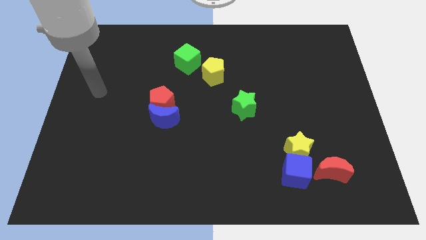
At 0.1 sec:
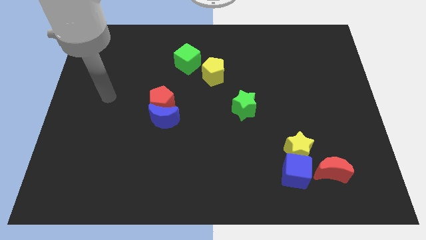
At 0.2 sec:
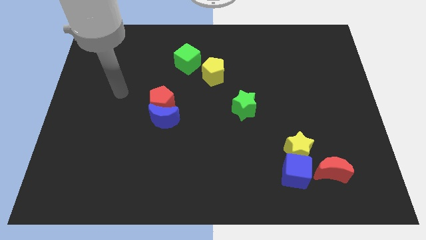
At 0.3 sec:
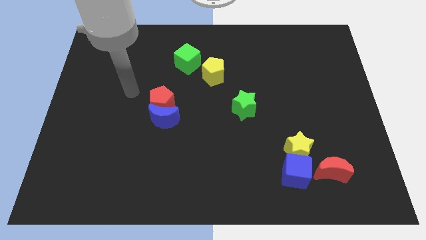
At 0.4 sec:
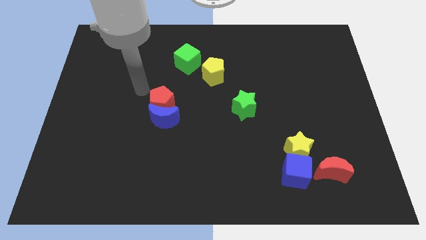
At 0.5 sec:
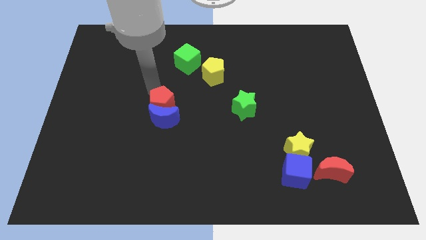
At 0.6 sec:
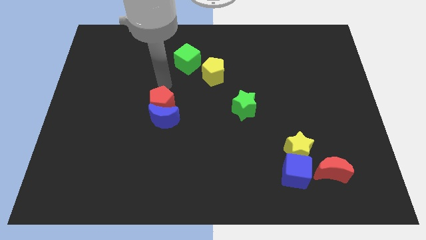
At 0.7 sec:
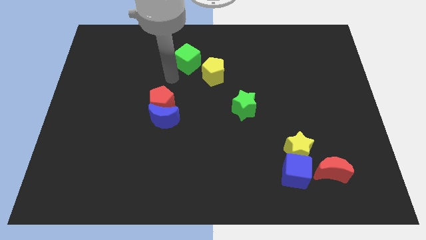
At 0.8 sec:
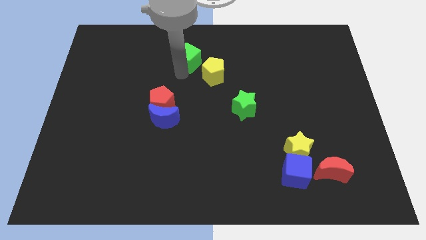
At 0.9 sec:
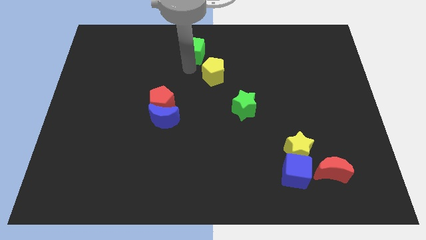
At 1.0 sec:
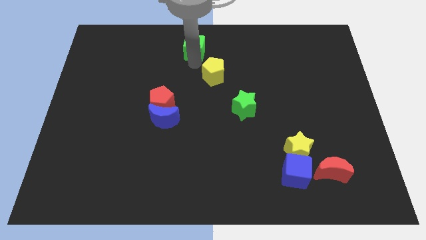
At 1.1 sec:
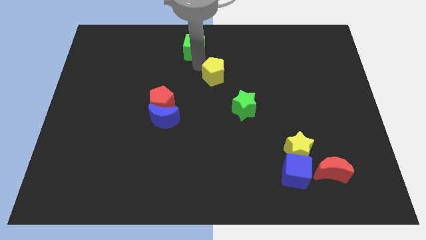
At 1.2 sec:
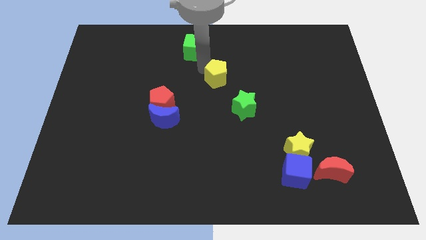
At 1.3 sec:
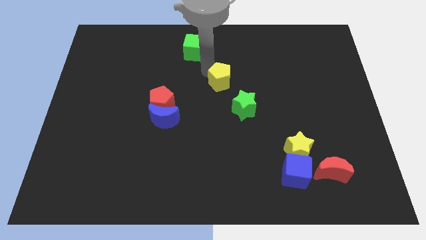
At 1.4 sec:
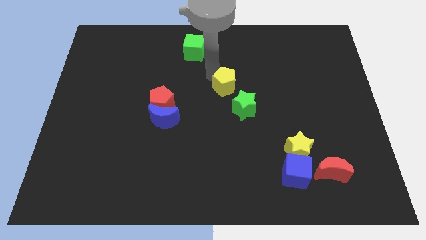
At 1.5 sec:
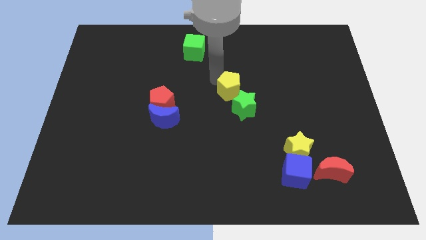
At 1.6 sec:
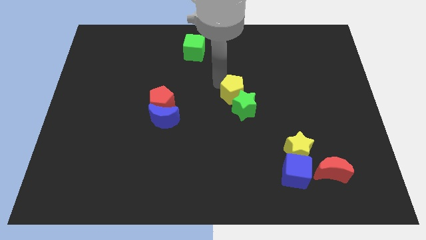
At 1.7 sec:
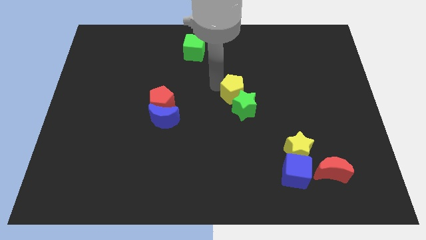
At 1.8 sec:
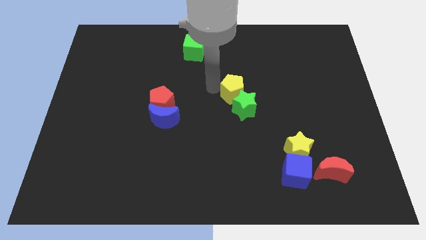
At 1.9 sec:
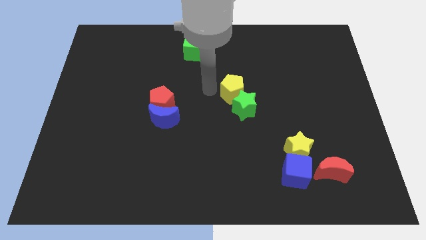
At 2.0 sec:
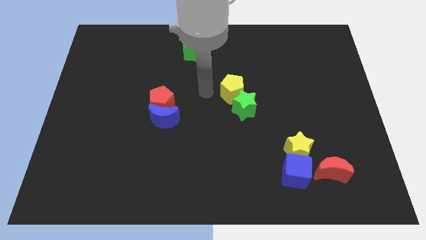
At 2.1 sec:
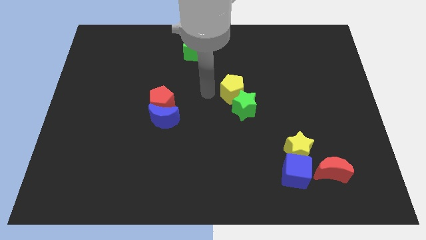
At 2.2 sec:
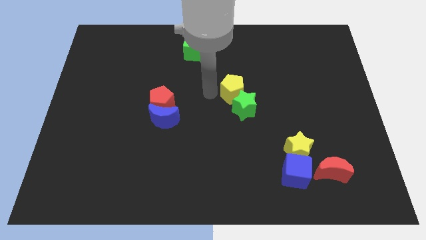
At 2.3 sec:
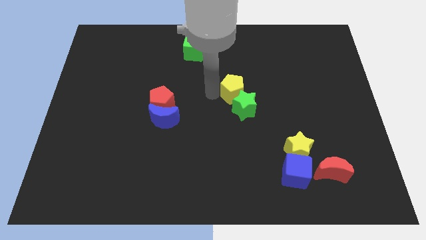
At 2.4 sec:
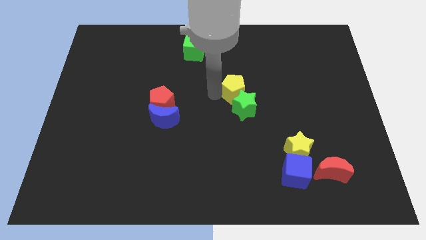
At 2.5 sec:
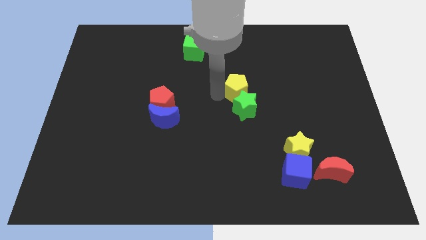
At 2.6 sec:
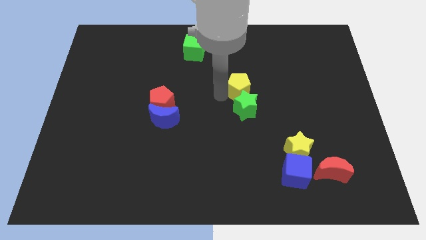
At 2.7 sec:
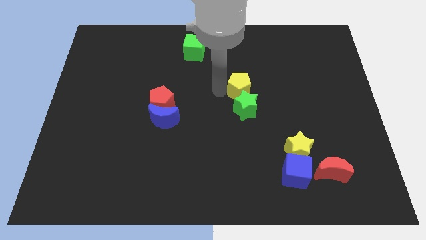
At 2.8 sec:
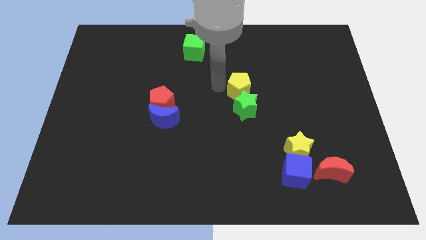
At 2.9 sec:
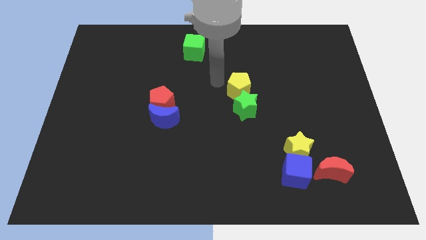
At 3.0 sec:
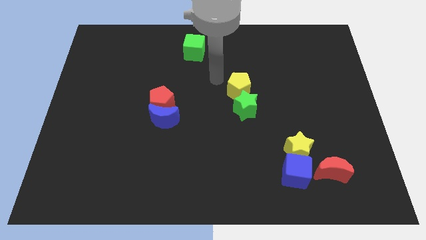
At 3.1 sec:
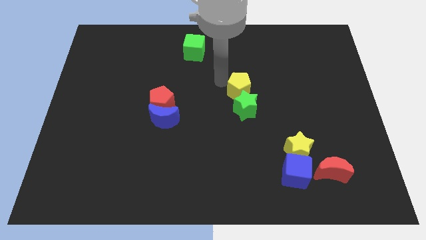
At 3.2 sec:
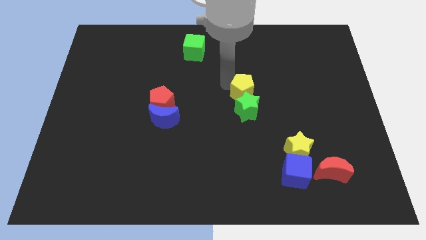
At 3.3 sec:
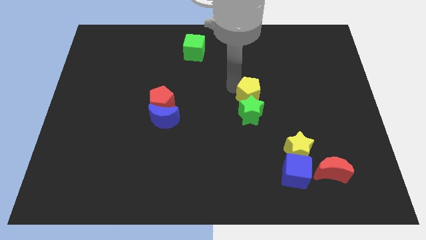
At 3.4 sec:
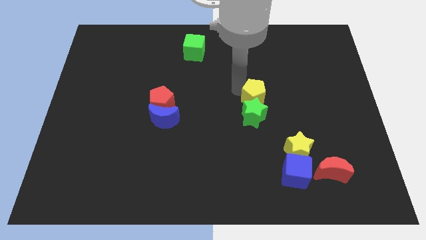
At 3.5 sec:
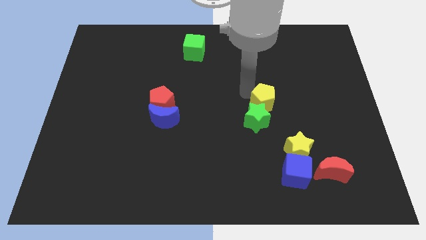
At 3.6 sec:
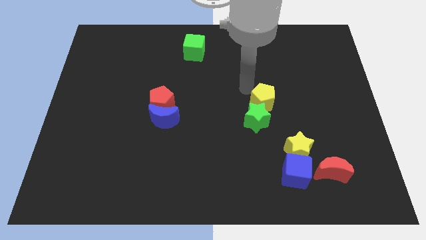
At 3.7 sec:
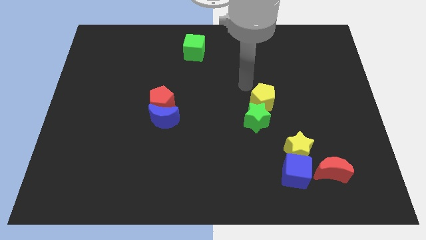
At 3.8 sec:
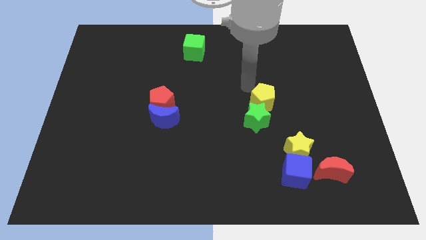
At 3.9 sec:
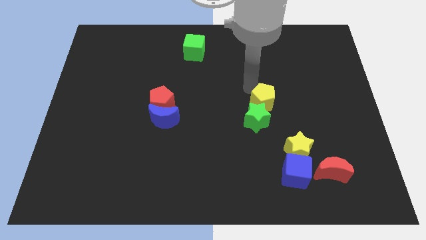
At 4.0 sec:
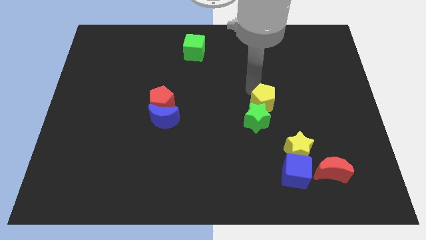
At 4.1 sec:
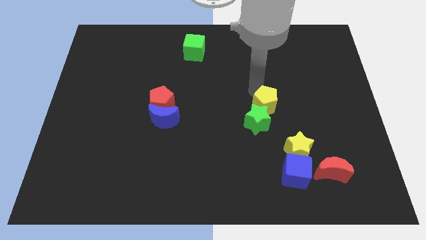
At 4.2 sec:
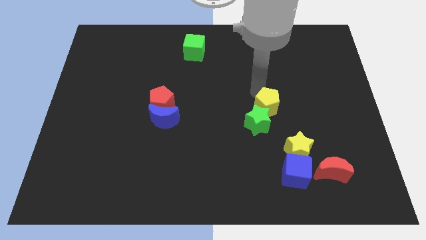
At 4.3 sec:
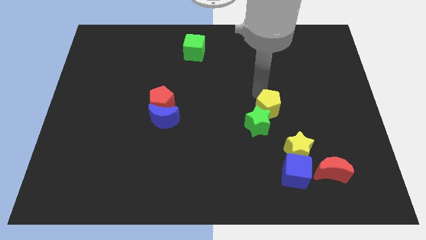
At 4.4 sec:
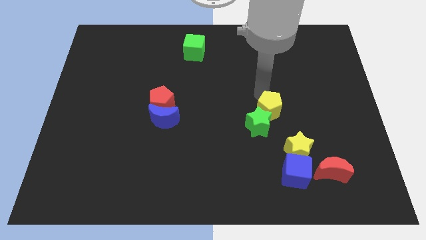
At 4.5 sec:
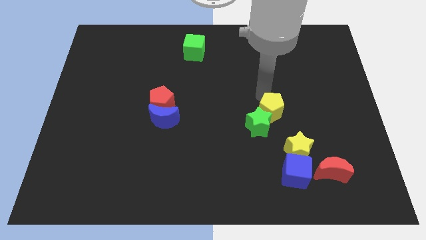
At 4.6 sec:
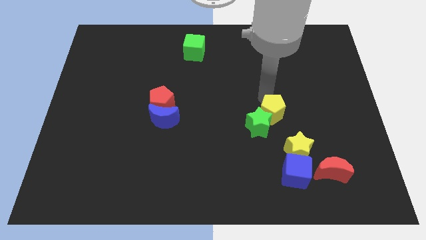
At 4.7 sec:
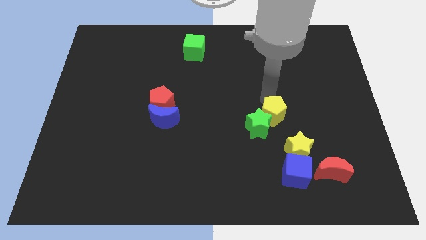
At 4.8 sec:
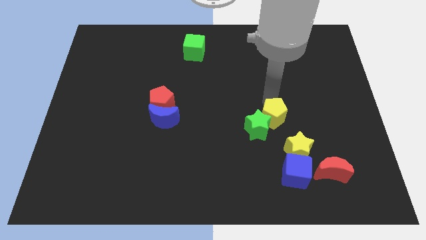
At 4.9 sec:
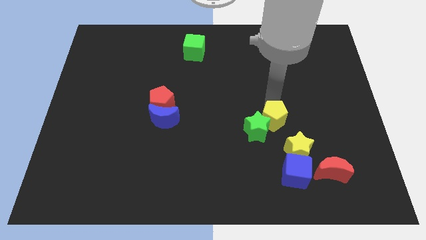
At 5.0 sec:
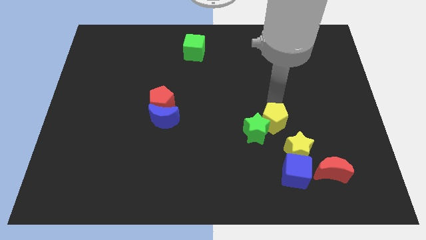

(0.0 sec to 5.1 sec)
slide the yellow pentagon diagonally down and to the right

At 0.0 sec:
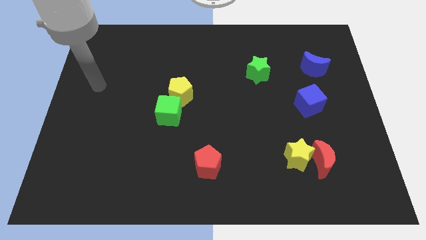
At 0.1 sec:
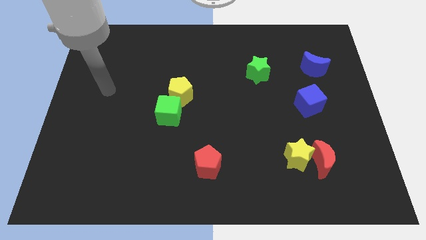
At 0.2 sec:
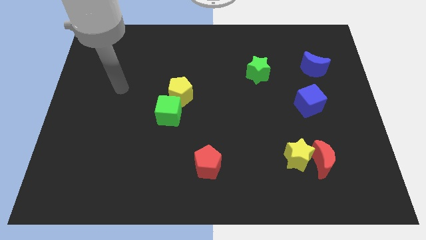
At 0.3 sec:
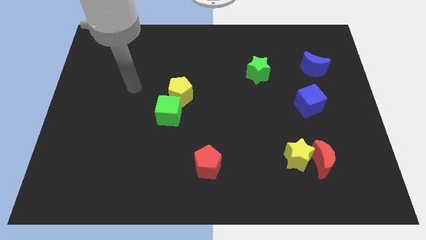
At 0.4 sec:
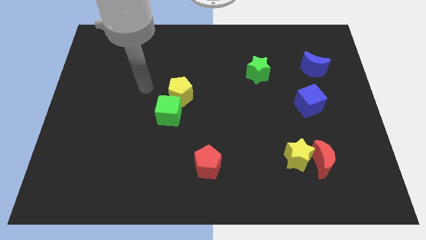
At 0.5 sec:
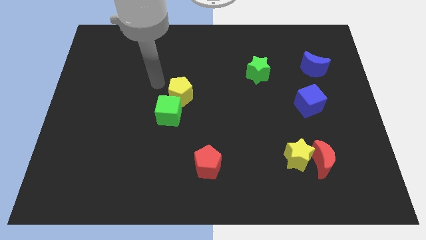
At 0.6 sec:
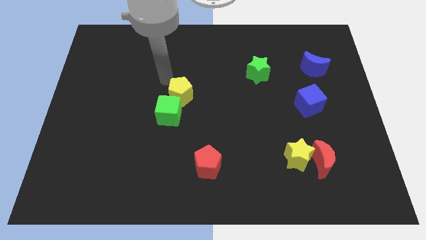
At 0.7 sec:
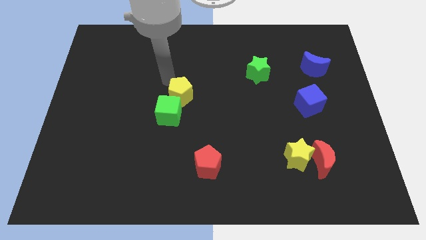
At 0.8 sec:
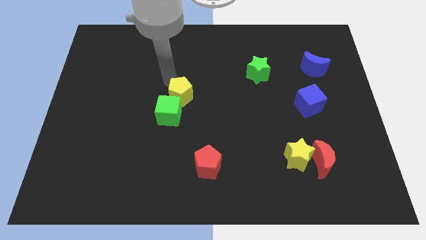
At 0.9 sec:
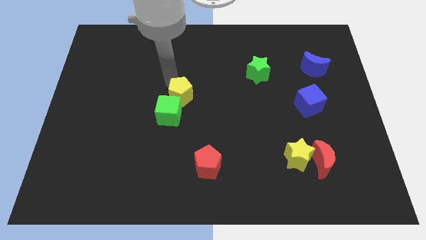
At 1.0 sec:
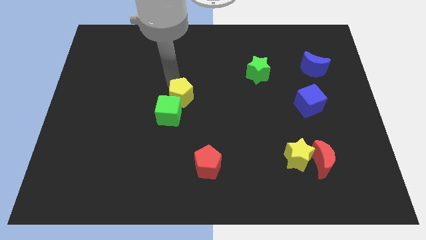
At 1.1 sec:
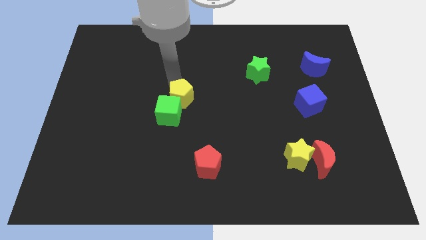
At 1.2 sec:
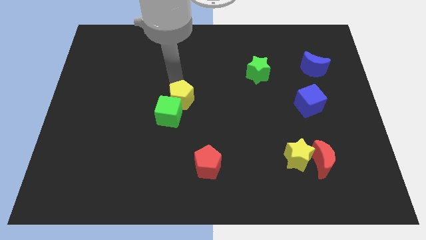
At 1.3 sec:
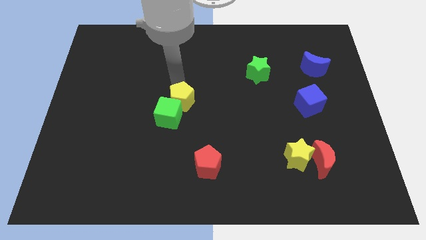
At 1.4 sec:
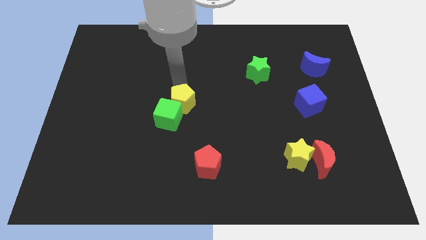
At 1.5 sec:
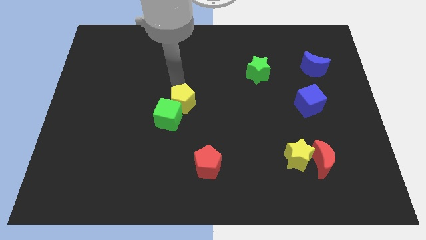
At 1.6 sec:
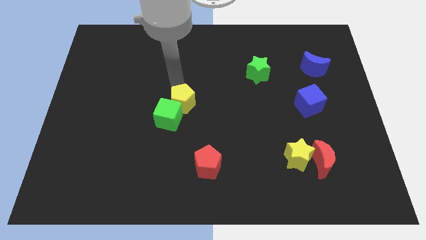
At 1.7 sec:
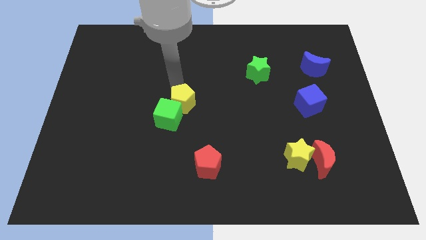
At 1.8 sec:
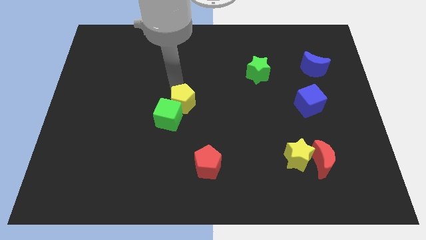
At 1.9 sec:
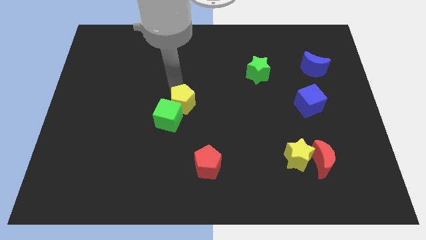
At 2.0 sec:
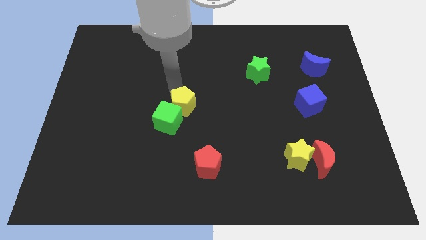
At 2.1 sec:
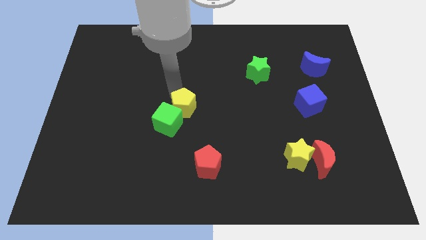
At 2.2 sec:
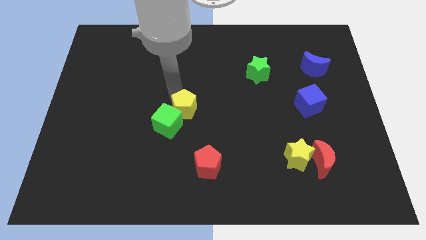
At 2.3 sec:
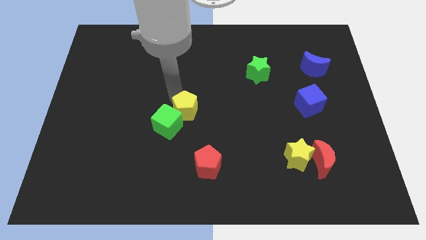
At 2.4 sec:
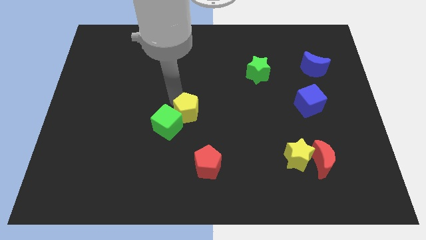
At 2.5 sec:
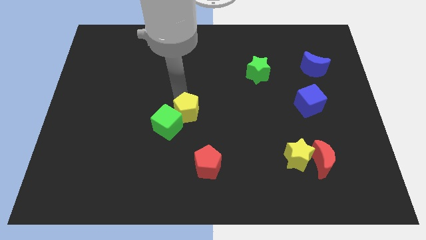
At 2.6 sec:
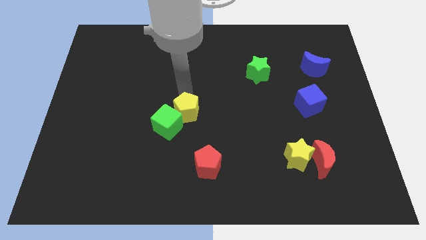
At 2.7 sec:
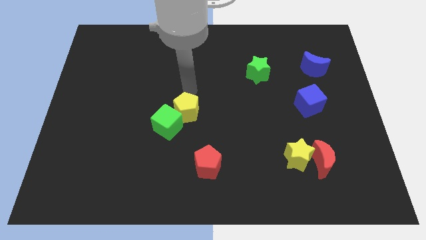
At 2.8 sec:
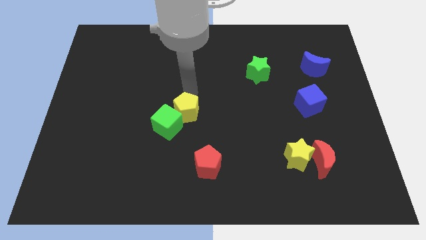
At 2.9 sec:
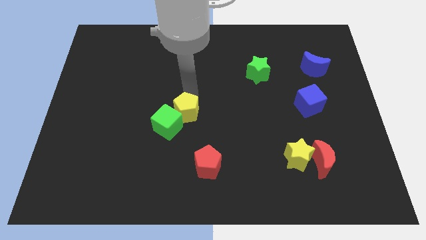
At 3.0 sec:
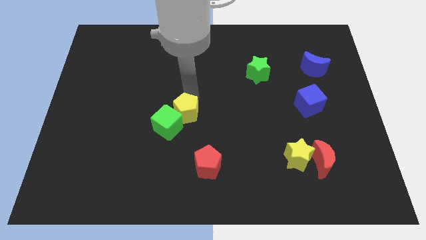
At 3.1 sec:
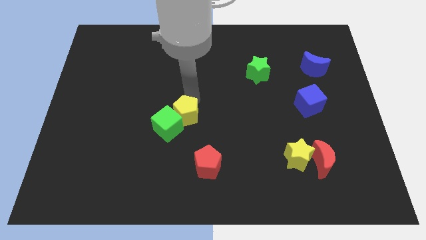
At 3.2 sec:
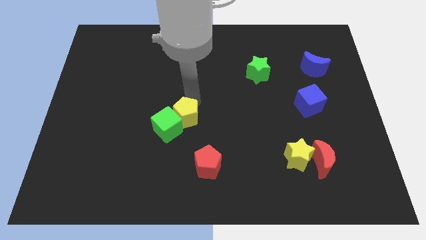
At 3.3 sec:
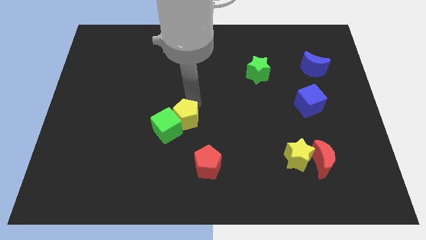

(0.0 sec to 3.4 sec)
push the yellow pentagon downwards a little bit
